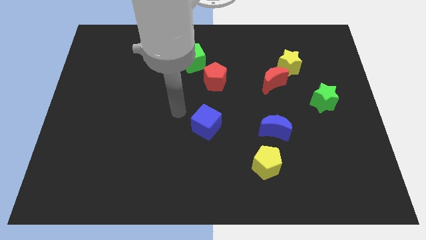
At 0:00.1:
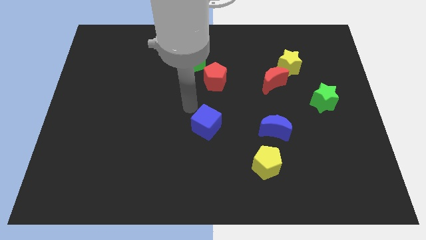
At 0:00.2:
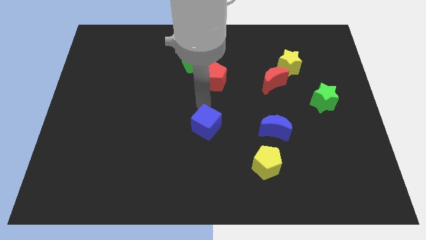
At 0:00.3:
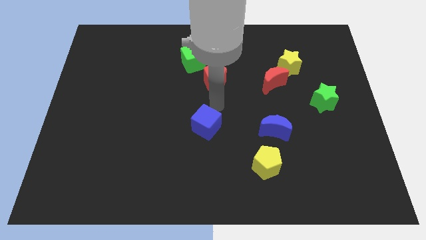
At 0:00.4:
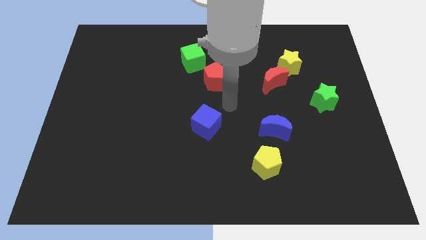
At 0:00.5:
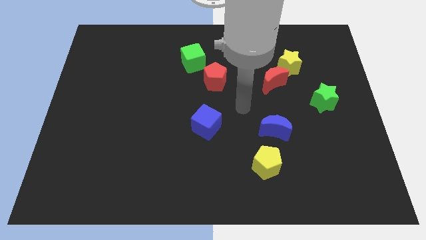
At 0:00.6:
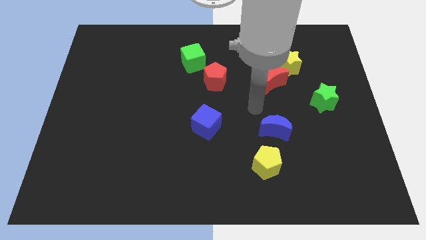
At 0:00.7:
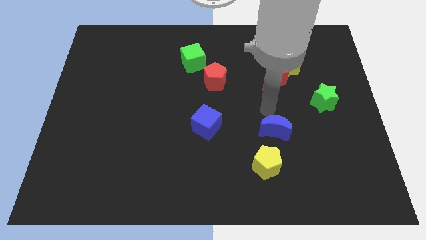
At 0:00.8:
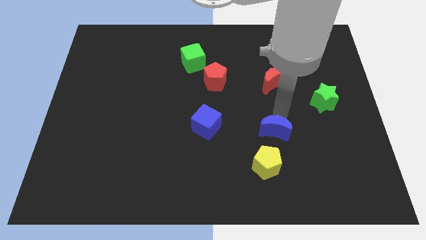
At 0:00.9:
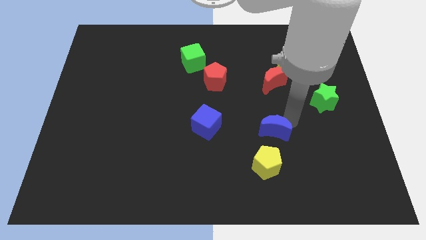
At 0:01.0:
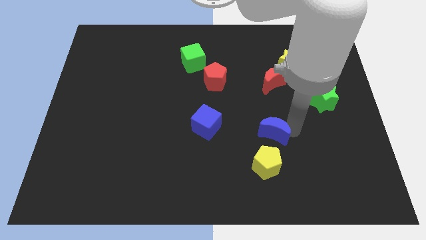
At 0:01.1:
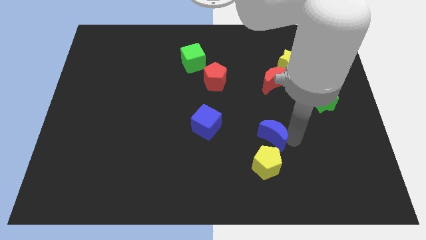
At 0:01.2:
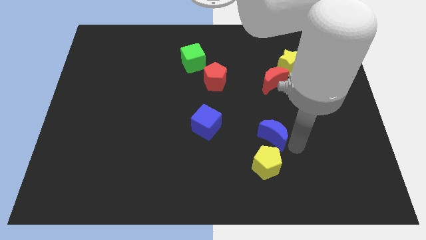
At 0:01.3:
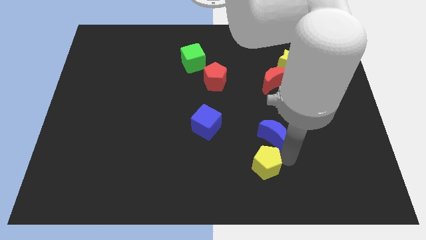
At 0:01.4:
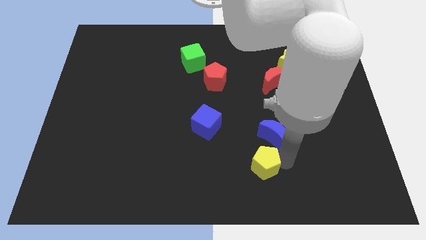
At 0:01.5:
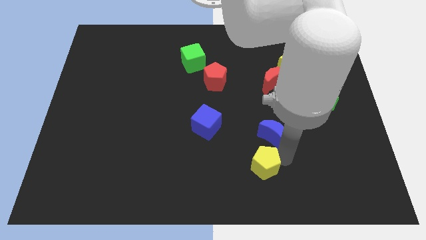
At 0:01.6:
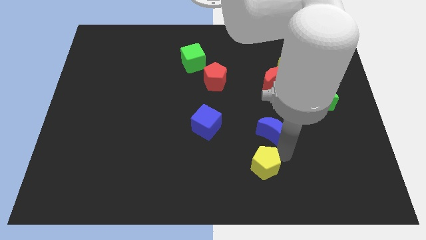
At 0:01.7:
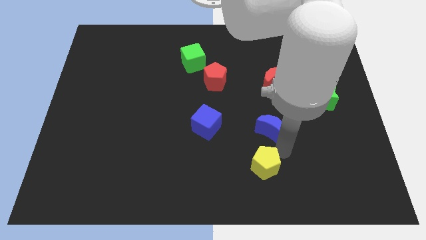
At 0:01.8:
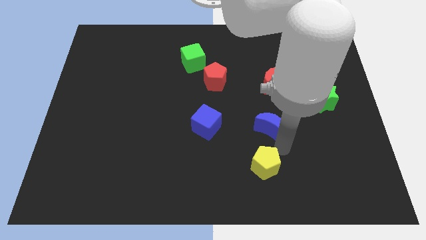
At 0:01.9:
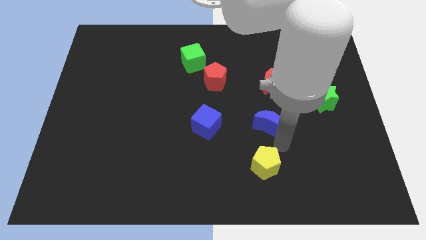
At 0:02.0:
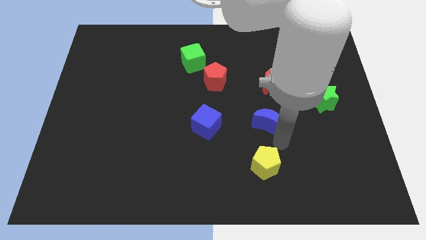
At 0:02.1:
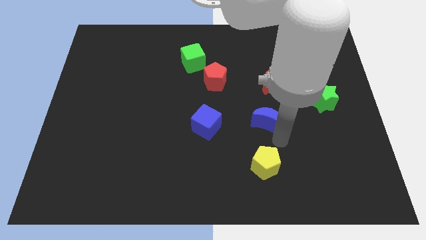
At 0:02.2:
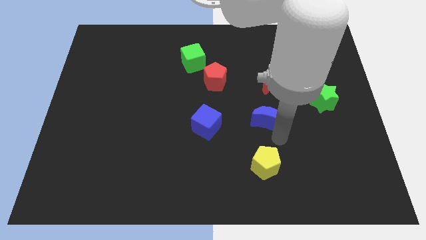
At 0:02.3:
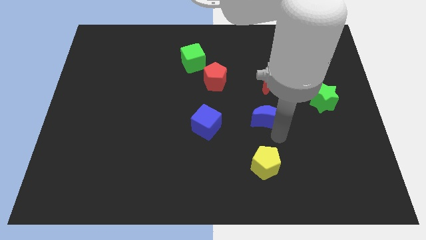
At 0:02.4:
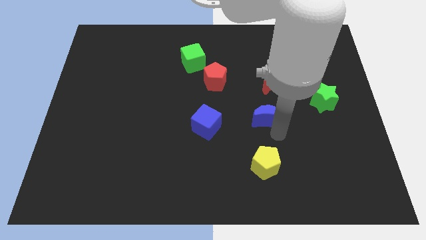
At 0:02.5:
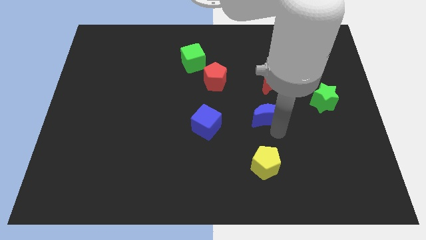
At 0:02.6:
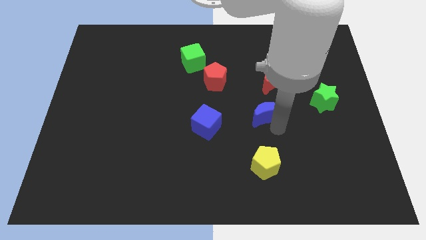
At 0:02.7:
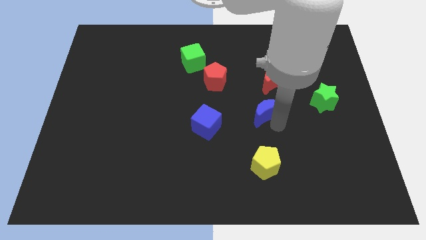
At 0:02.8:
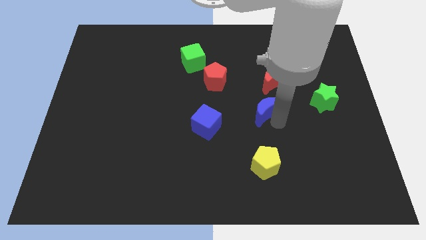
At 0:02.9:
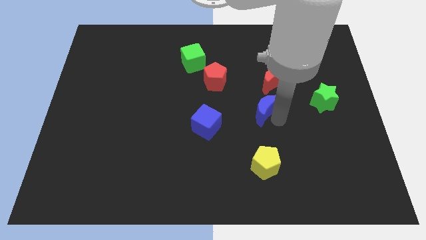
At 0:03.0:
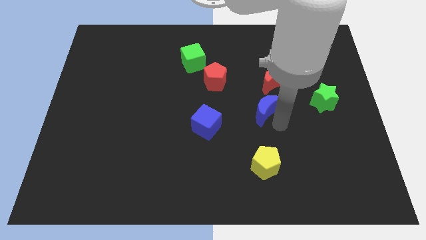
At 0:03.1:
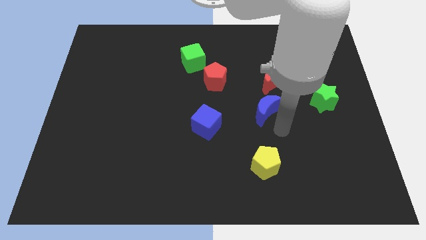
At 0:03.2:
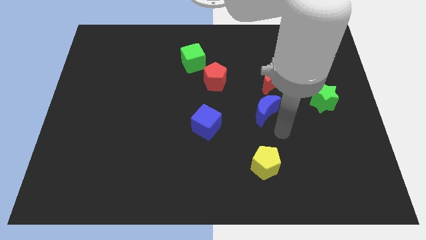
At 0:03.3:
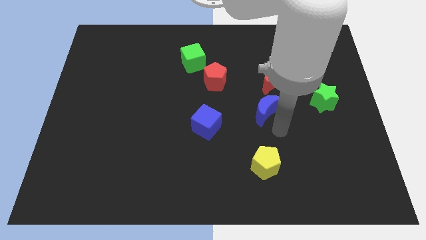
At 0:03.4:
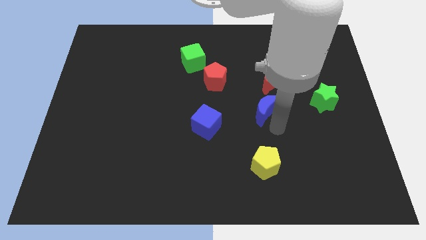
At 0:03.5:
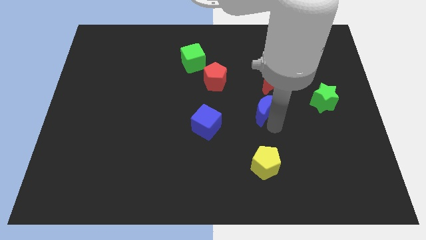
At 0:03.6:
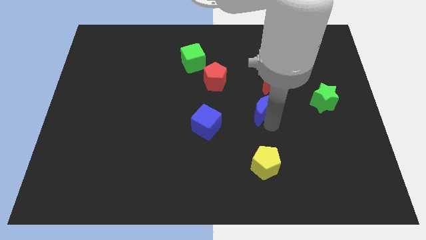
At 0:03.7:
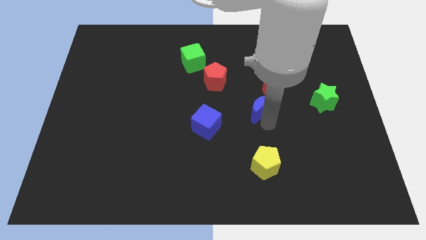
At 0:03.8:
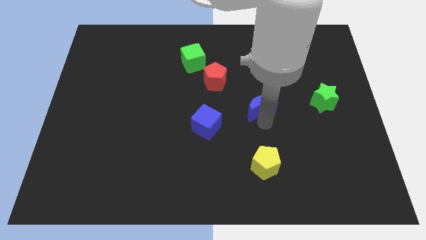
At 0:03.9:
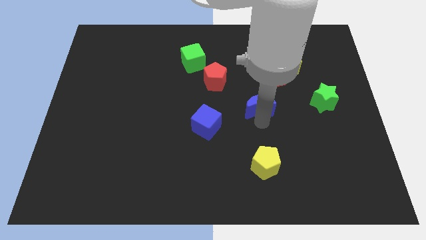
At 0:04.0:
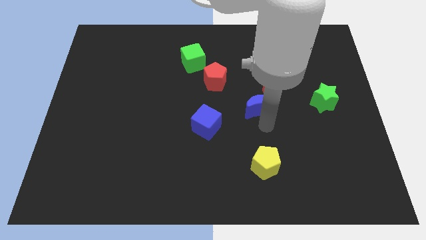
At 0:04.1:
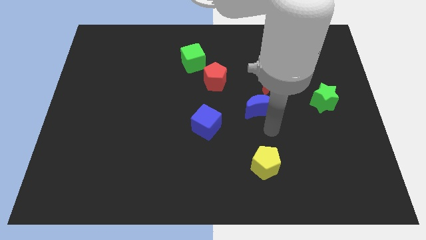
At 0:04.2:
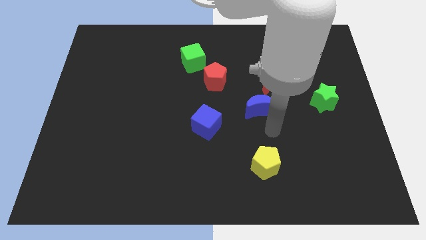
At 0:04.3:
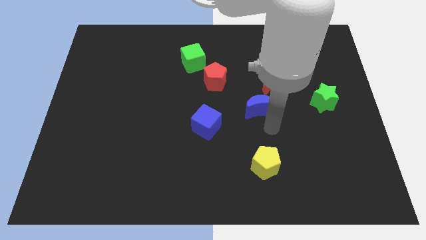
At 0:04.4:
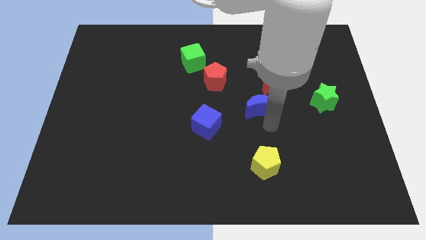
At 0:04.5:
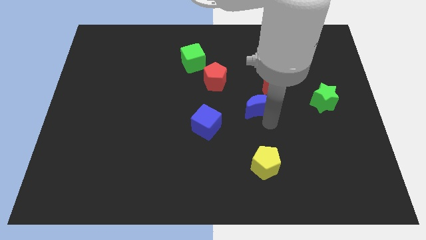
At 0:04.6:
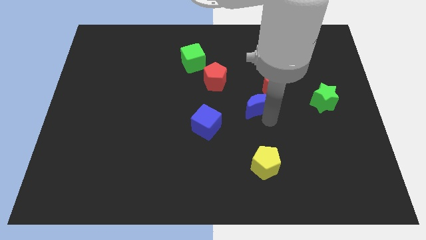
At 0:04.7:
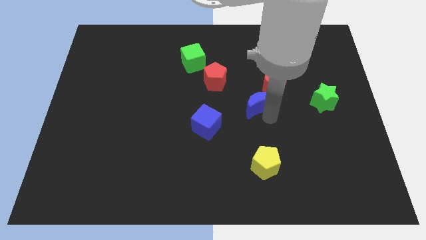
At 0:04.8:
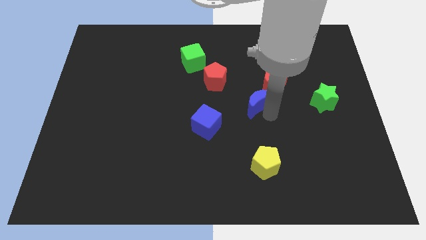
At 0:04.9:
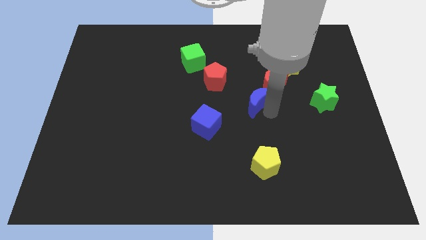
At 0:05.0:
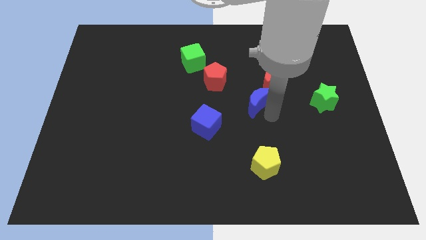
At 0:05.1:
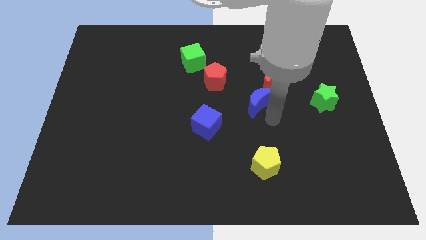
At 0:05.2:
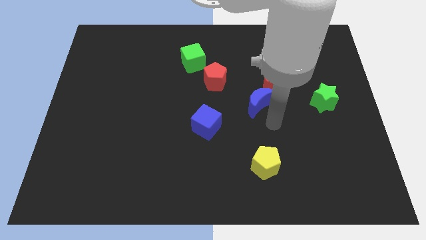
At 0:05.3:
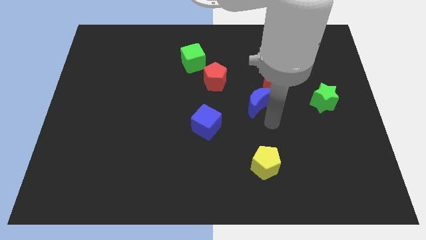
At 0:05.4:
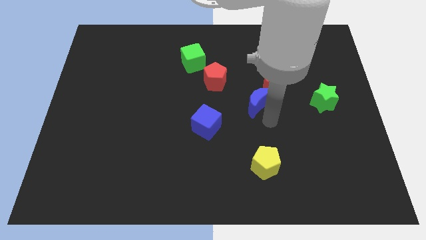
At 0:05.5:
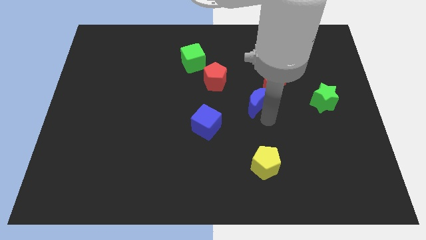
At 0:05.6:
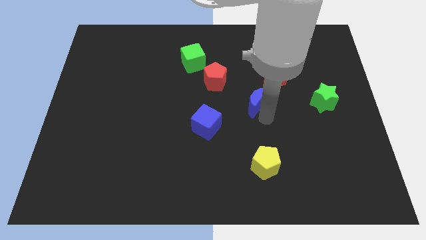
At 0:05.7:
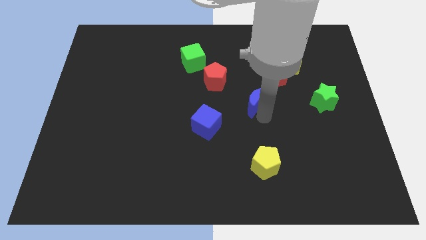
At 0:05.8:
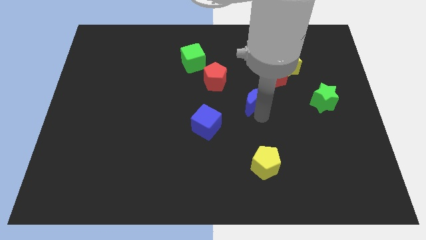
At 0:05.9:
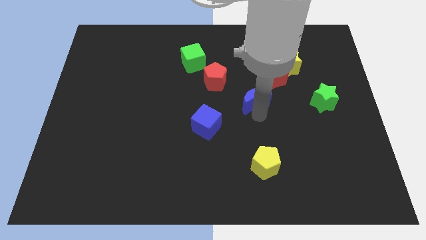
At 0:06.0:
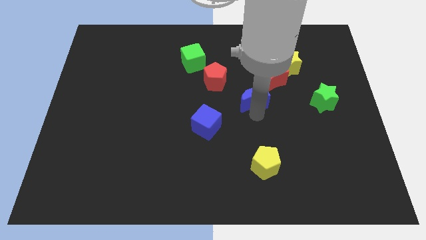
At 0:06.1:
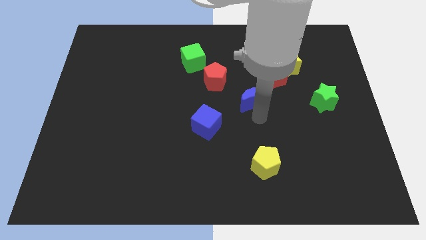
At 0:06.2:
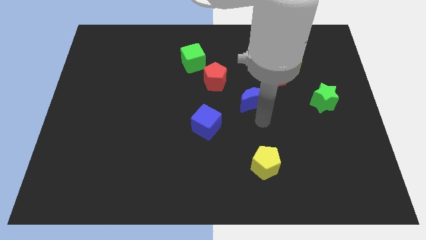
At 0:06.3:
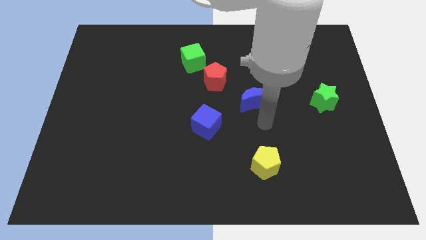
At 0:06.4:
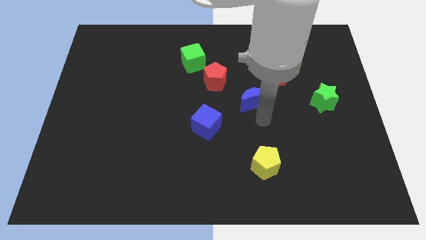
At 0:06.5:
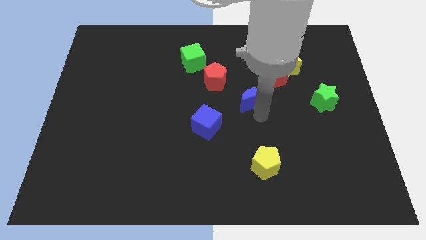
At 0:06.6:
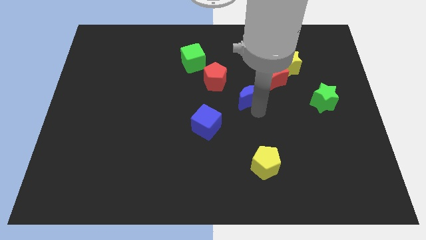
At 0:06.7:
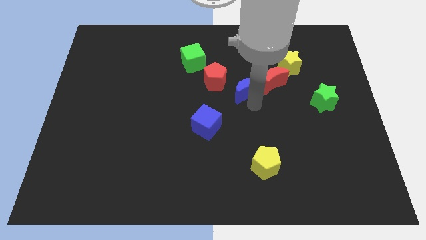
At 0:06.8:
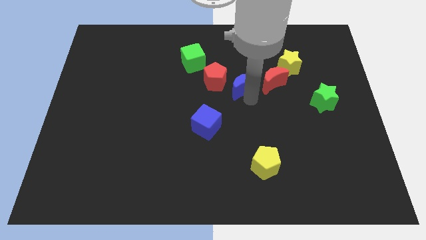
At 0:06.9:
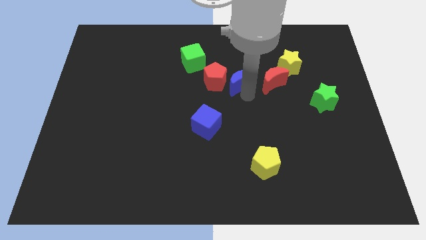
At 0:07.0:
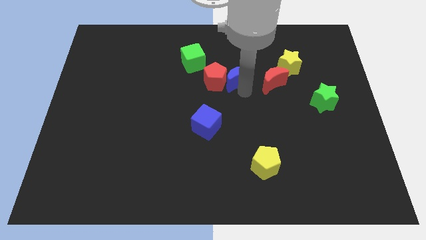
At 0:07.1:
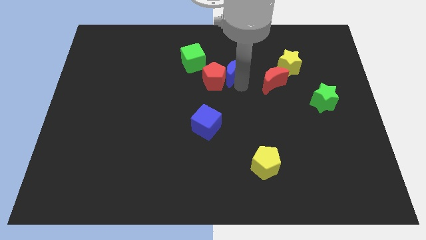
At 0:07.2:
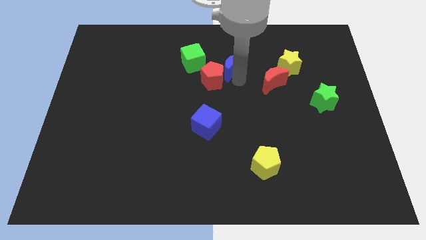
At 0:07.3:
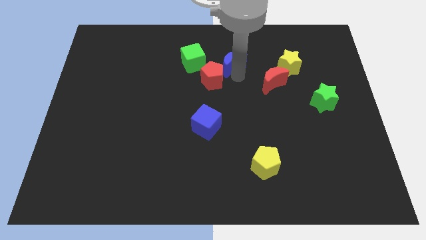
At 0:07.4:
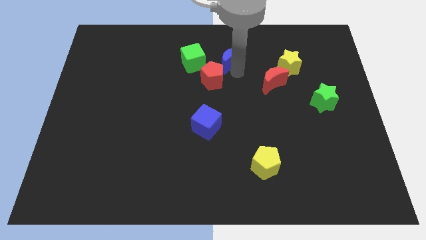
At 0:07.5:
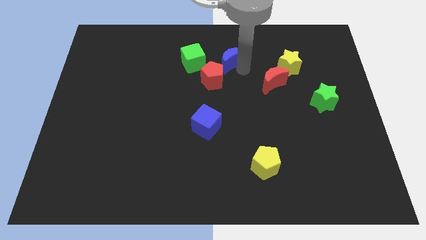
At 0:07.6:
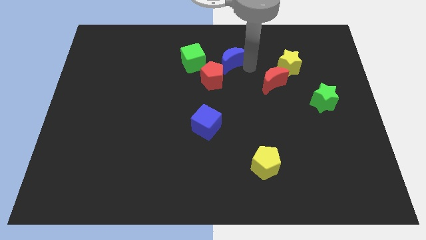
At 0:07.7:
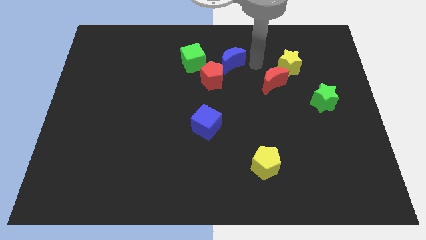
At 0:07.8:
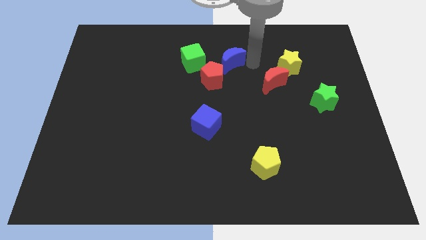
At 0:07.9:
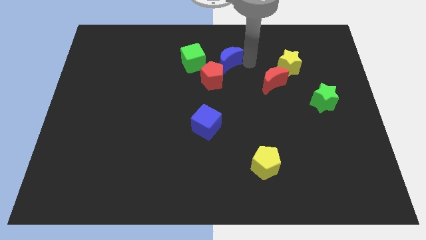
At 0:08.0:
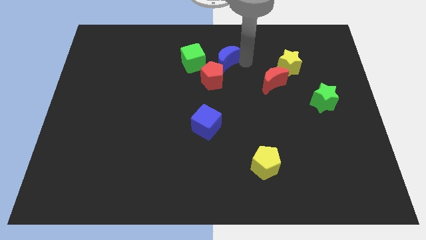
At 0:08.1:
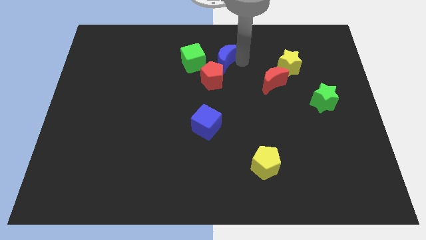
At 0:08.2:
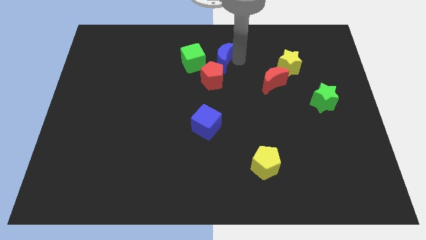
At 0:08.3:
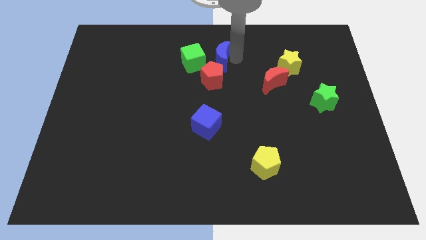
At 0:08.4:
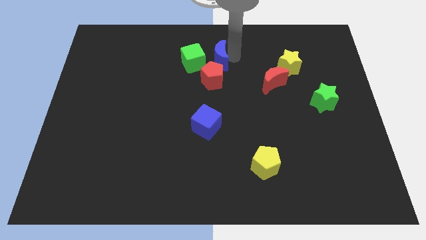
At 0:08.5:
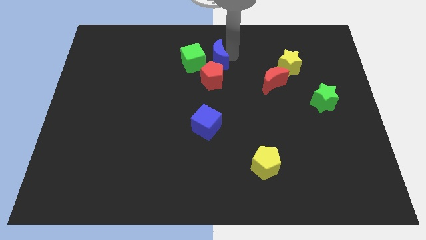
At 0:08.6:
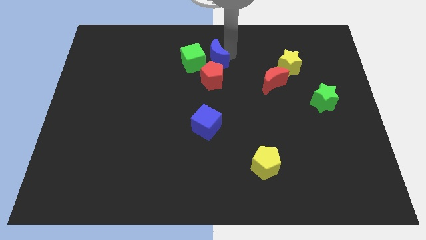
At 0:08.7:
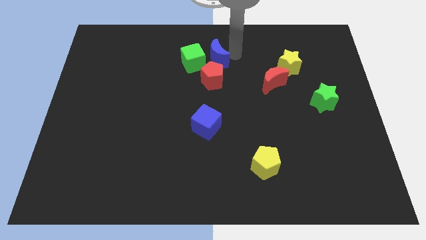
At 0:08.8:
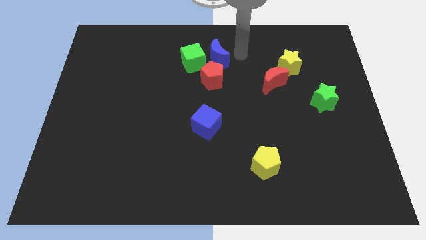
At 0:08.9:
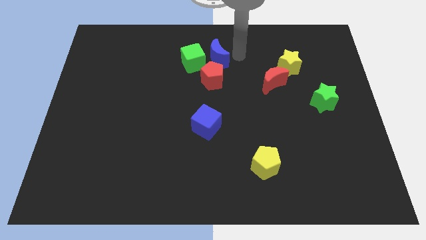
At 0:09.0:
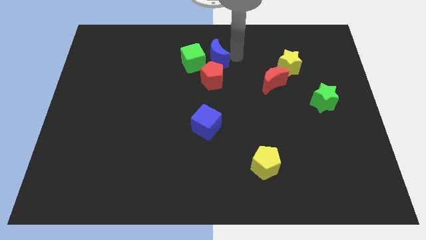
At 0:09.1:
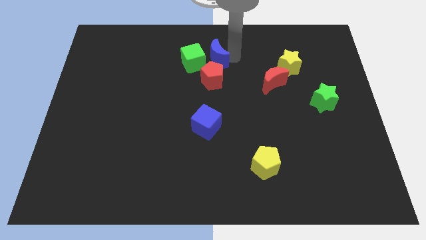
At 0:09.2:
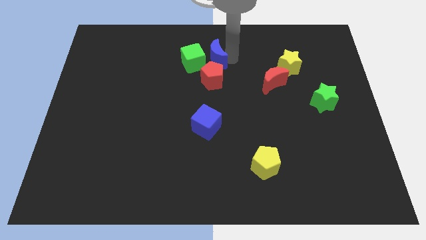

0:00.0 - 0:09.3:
push the blue moon next to the green cube
